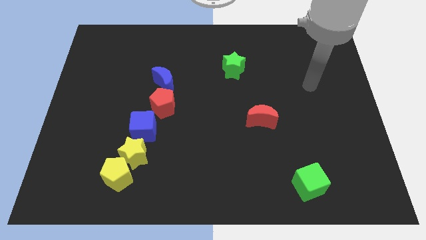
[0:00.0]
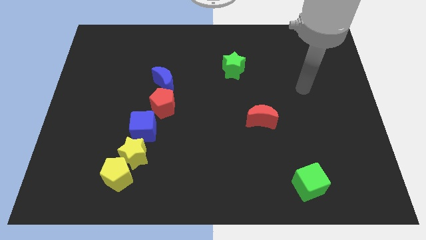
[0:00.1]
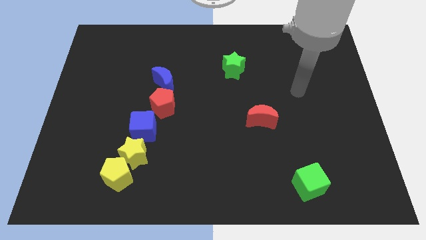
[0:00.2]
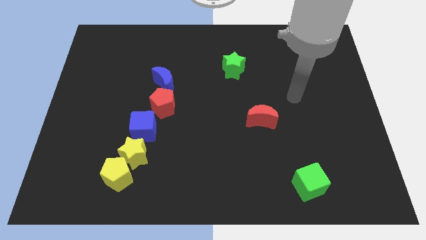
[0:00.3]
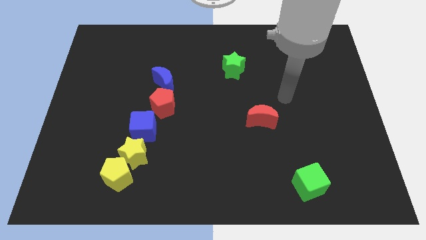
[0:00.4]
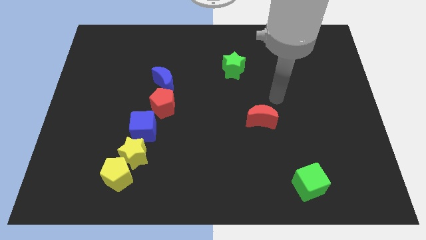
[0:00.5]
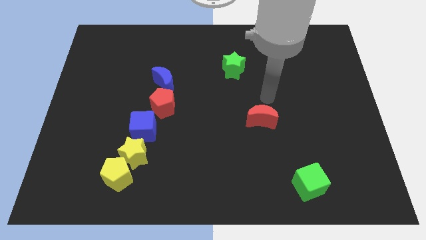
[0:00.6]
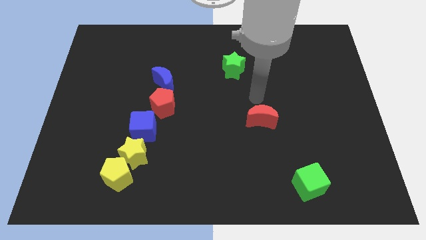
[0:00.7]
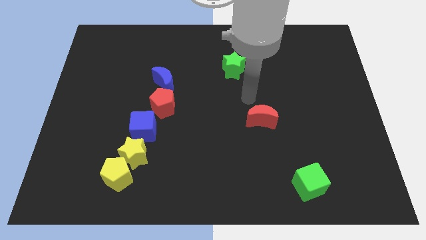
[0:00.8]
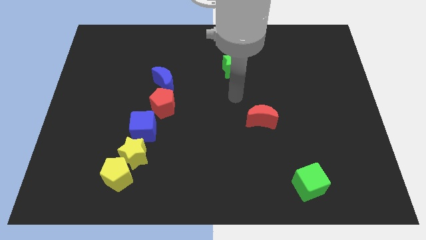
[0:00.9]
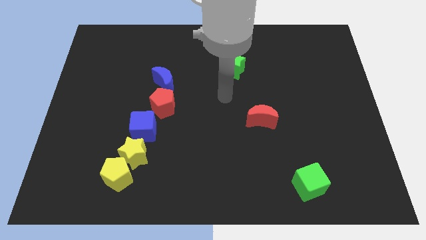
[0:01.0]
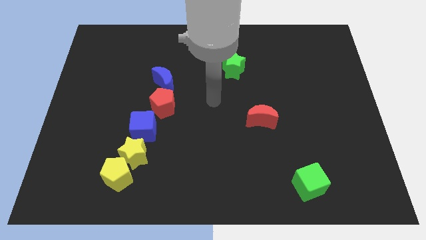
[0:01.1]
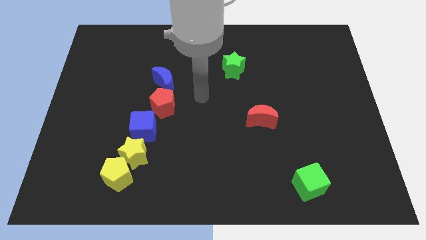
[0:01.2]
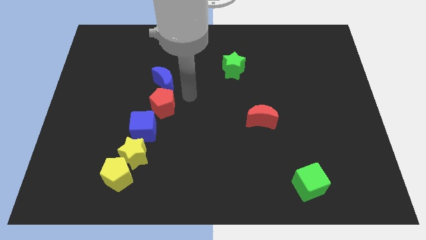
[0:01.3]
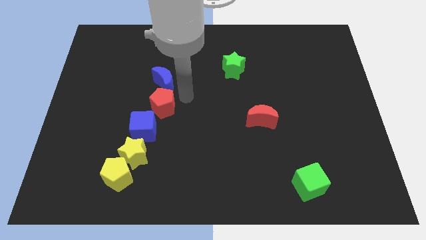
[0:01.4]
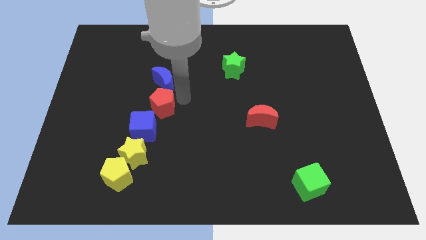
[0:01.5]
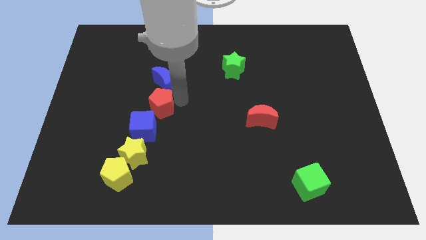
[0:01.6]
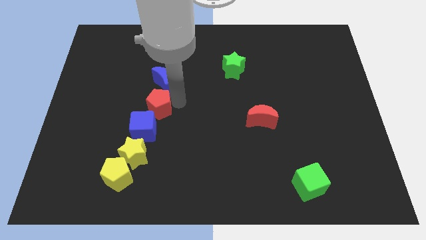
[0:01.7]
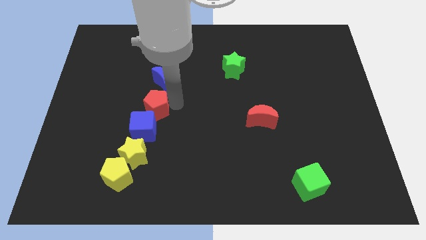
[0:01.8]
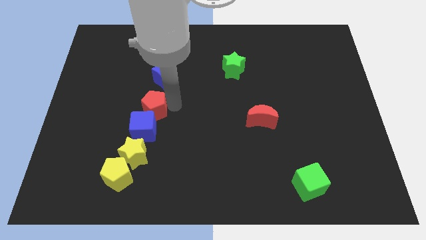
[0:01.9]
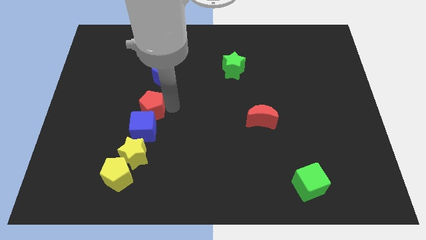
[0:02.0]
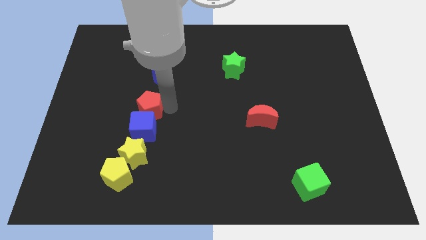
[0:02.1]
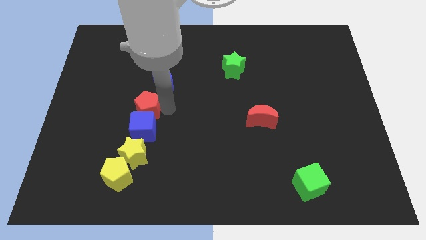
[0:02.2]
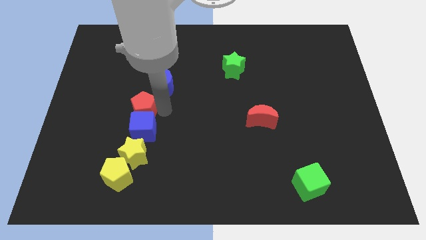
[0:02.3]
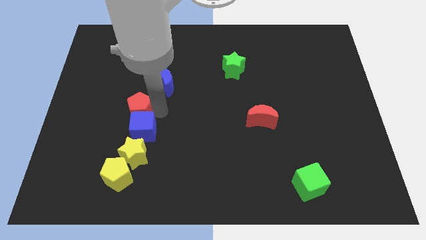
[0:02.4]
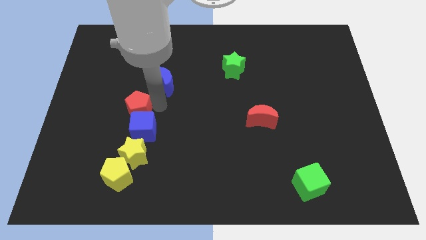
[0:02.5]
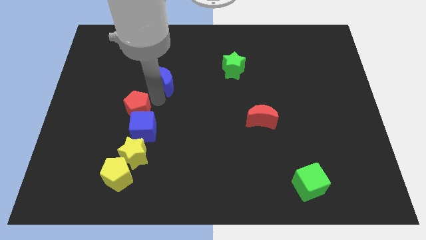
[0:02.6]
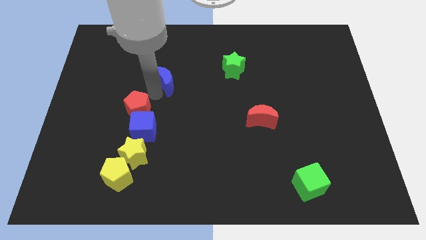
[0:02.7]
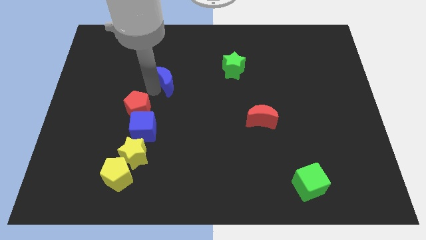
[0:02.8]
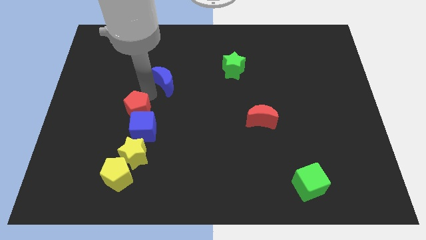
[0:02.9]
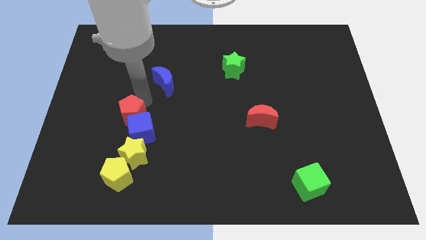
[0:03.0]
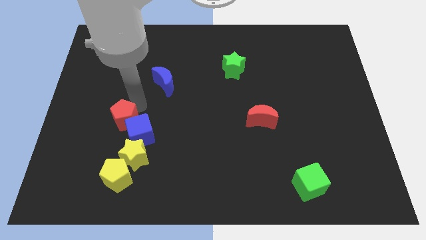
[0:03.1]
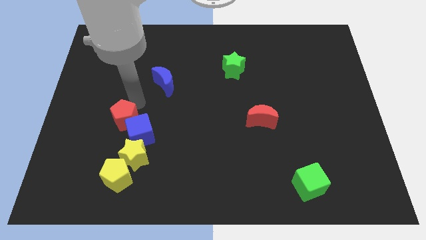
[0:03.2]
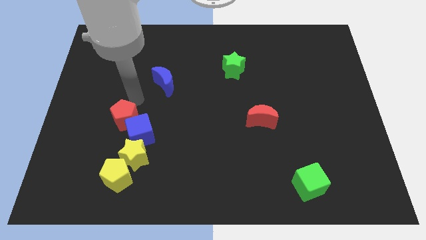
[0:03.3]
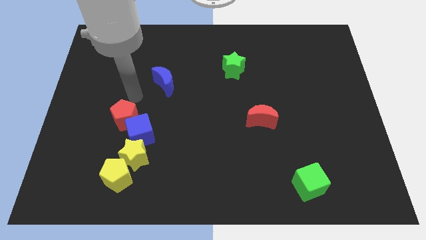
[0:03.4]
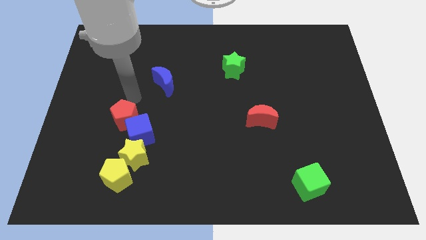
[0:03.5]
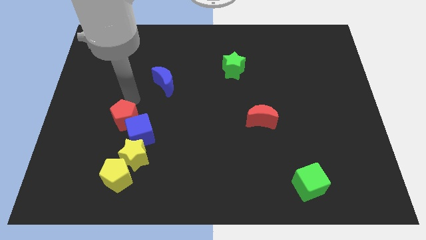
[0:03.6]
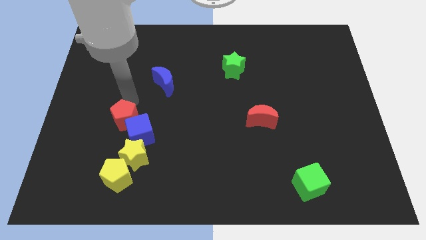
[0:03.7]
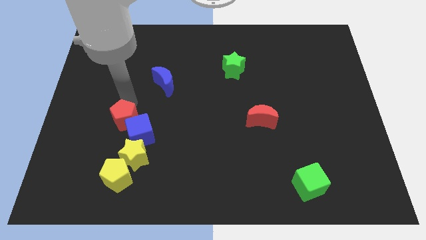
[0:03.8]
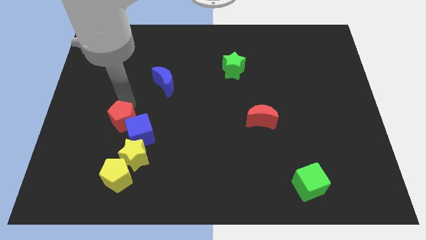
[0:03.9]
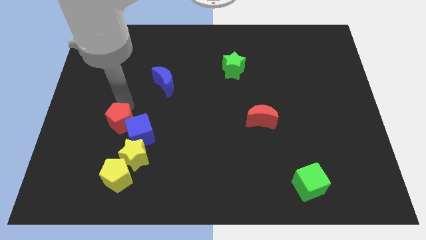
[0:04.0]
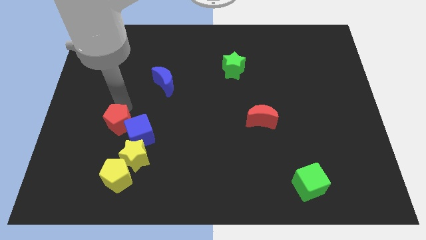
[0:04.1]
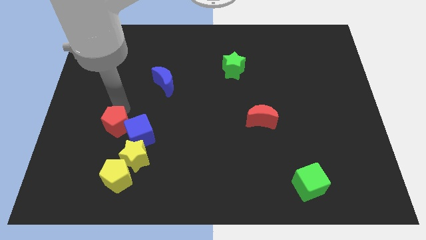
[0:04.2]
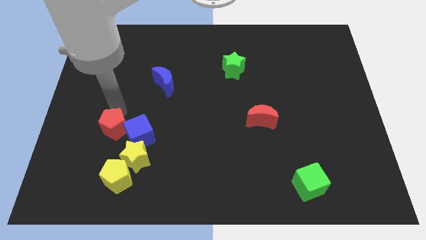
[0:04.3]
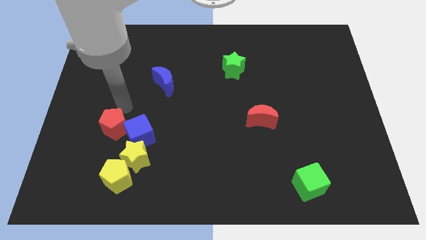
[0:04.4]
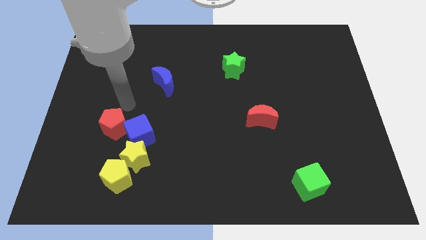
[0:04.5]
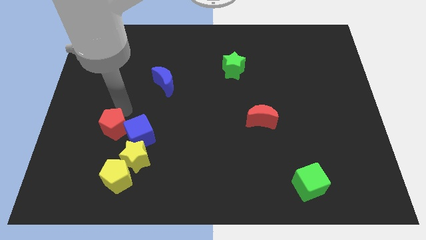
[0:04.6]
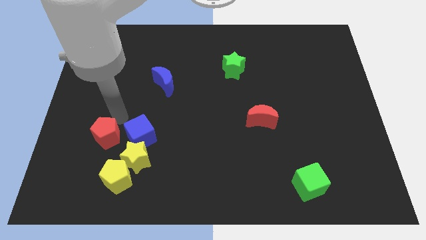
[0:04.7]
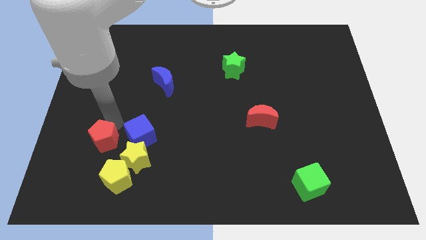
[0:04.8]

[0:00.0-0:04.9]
slide the red pentagon to the top left of the yellow pentagon

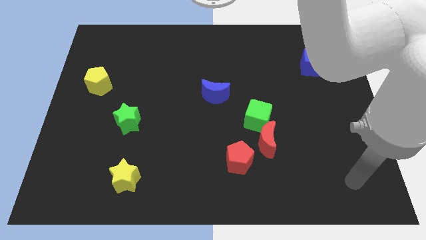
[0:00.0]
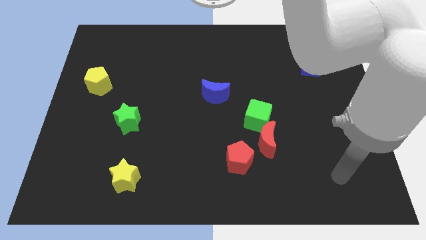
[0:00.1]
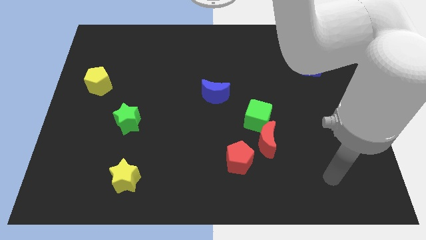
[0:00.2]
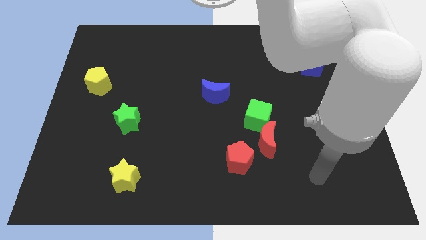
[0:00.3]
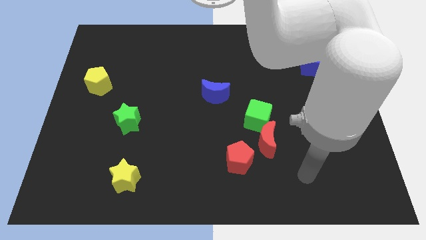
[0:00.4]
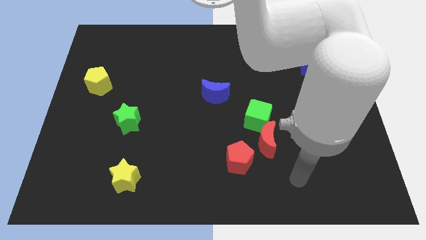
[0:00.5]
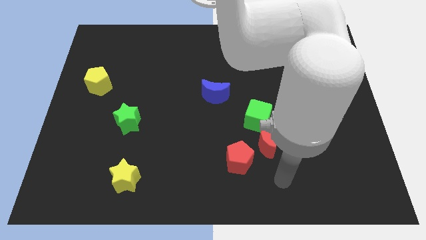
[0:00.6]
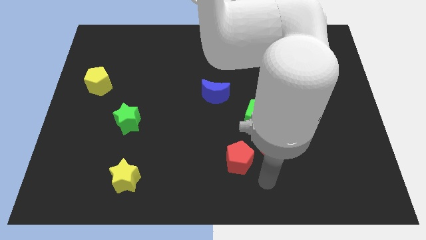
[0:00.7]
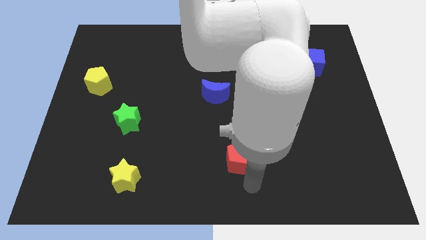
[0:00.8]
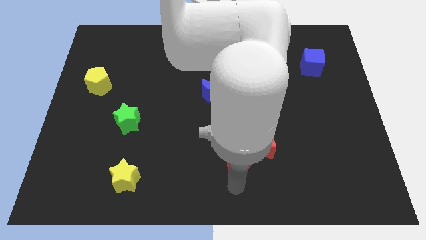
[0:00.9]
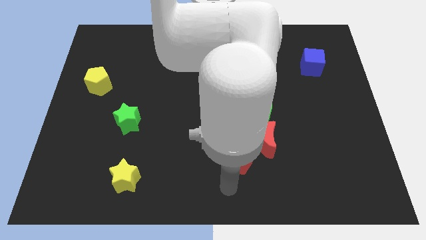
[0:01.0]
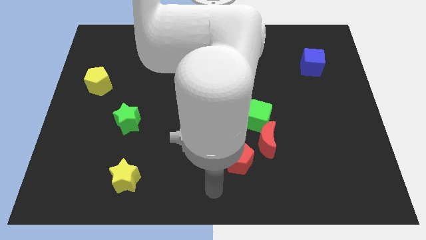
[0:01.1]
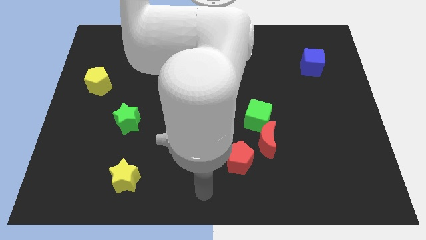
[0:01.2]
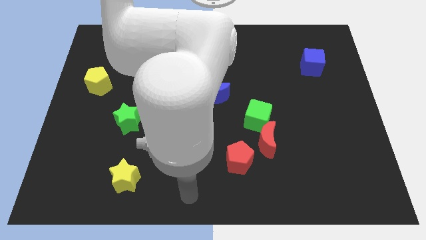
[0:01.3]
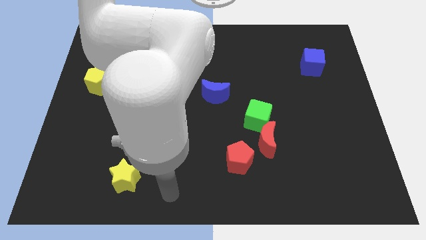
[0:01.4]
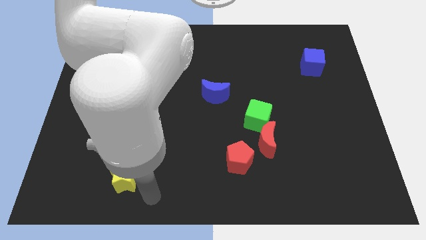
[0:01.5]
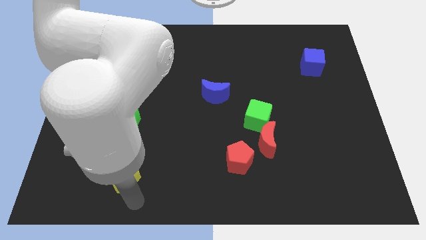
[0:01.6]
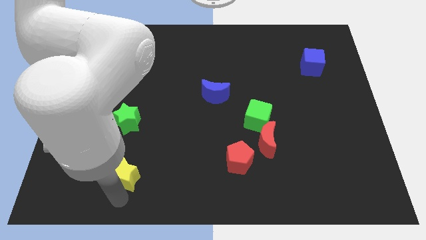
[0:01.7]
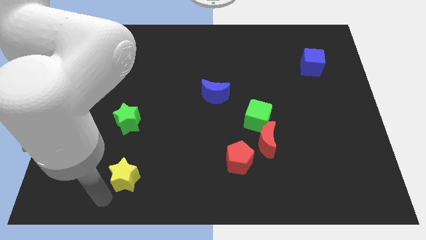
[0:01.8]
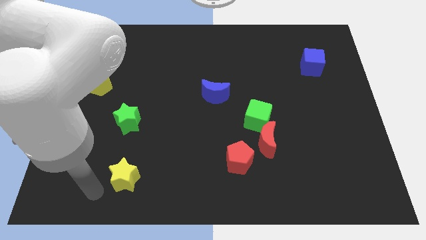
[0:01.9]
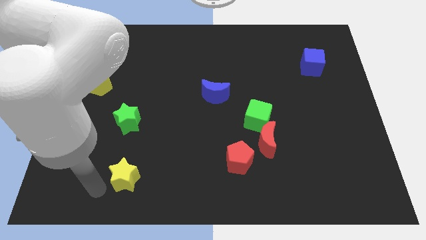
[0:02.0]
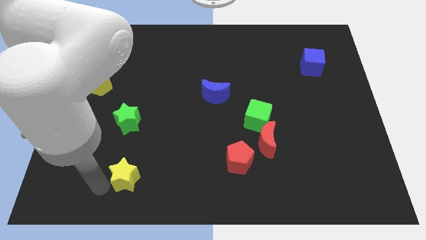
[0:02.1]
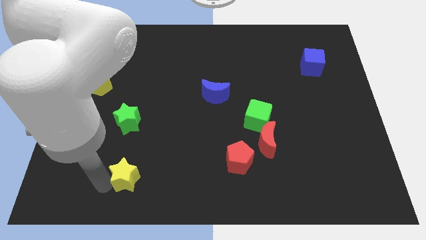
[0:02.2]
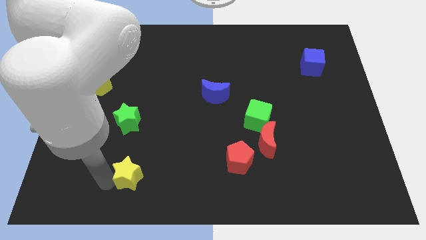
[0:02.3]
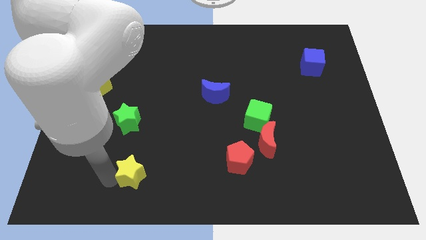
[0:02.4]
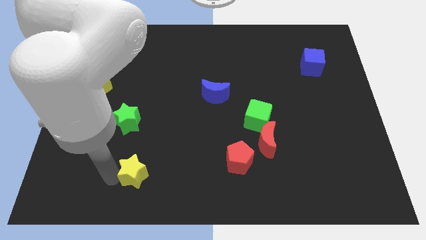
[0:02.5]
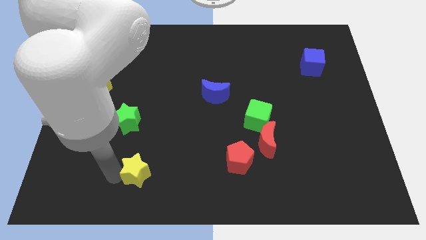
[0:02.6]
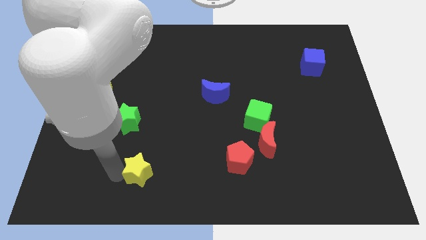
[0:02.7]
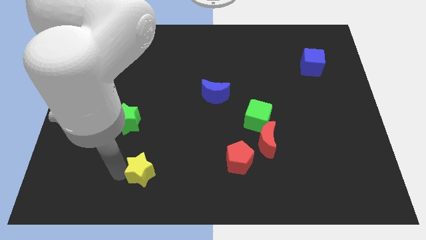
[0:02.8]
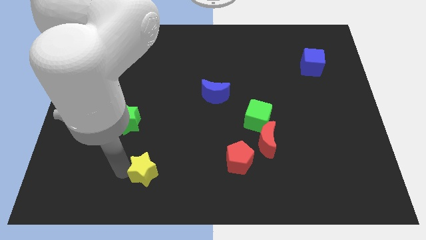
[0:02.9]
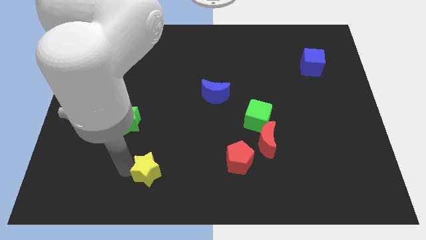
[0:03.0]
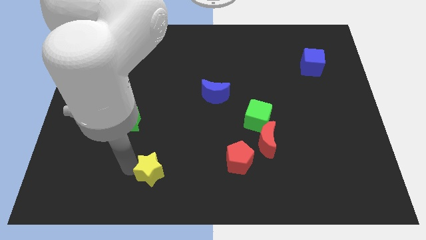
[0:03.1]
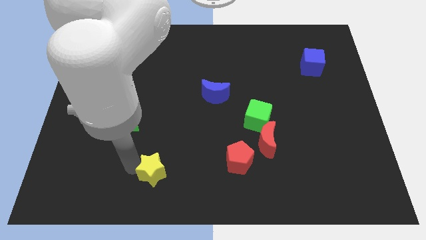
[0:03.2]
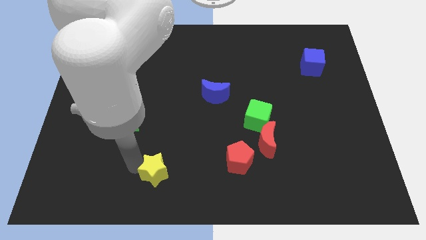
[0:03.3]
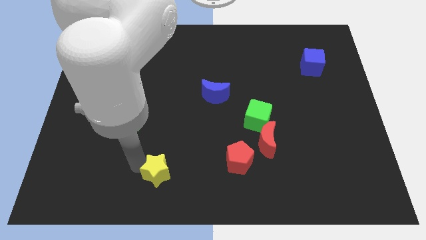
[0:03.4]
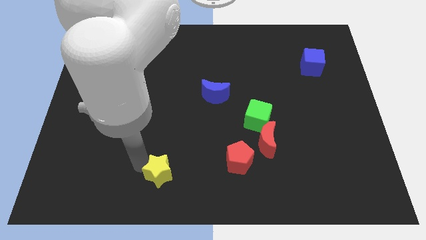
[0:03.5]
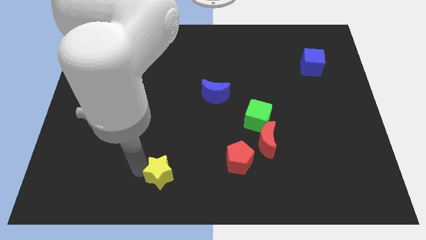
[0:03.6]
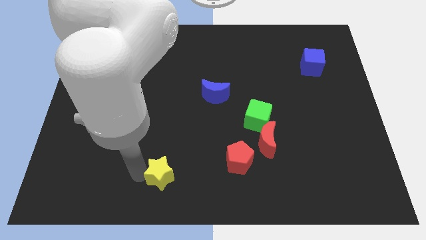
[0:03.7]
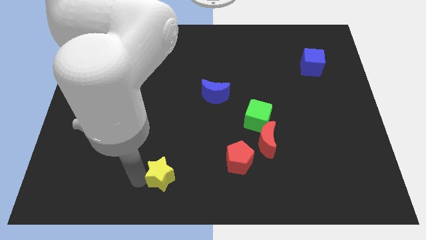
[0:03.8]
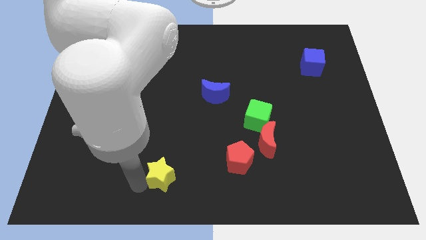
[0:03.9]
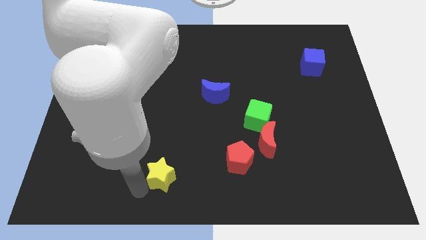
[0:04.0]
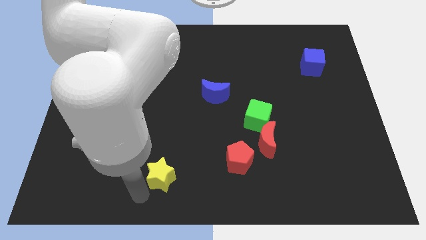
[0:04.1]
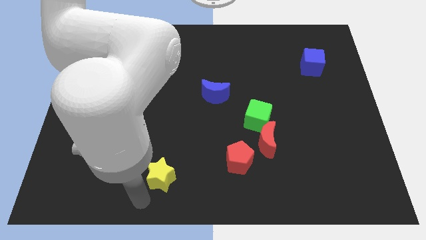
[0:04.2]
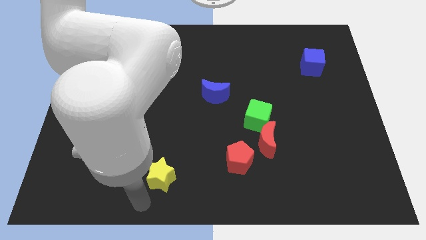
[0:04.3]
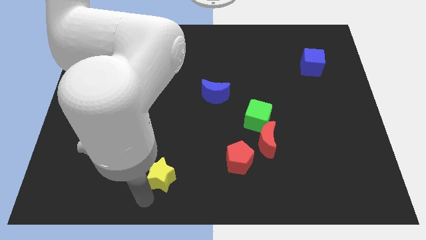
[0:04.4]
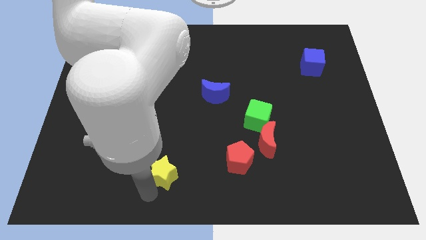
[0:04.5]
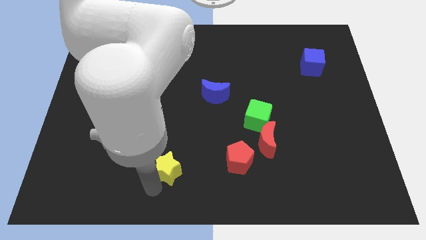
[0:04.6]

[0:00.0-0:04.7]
put the yellow star left of the red pentagon
